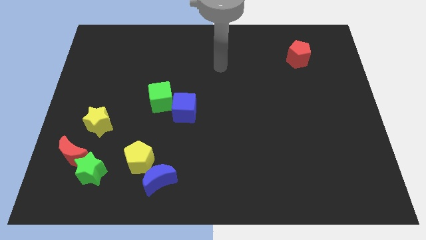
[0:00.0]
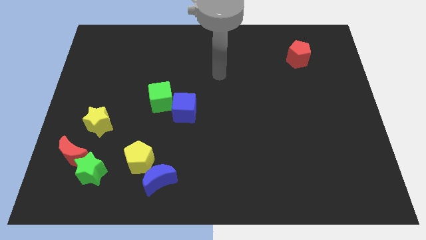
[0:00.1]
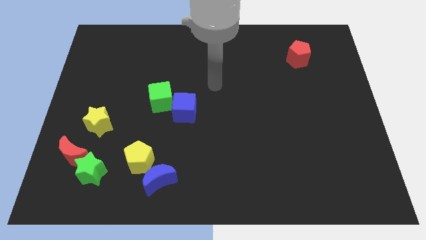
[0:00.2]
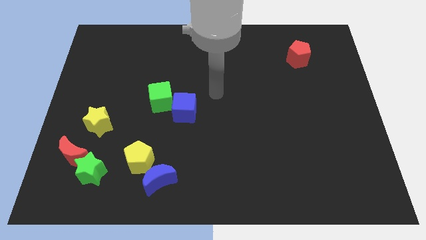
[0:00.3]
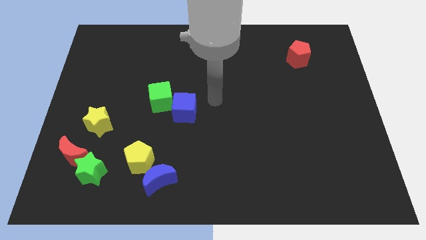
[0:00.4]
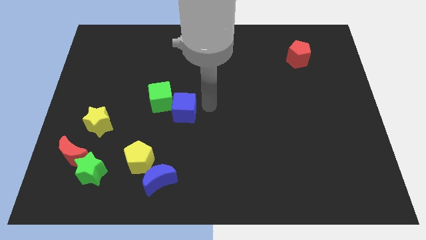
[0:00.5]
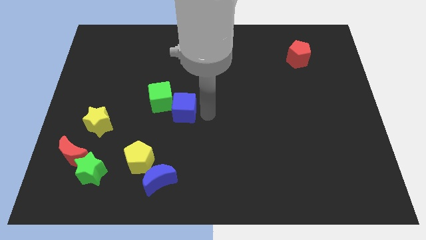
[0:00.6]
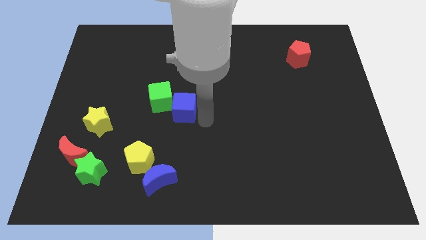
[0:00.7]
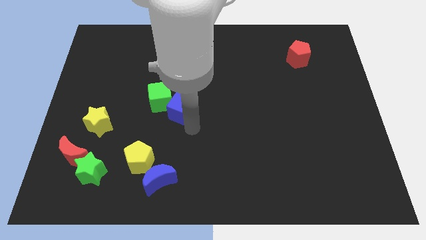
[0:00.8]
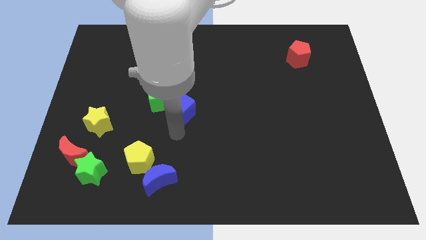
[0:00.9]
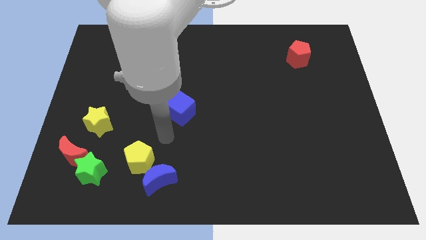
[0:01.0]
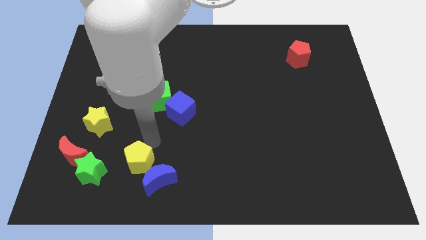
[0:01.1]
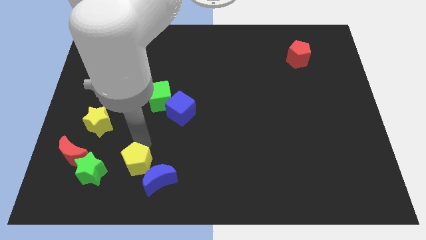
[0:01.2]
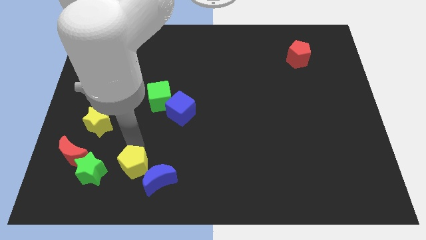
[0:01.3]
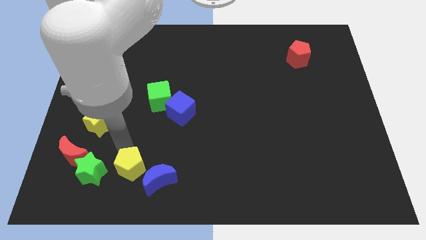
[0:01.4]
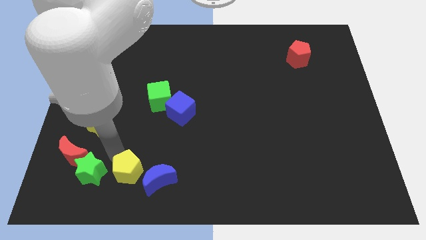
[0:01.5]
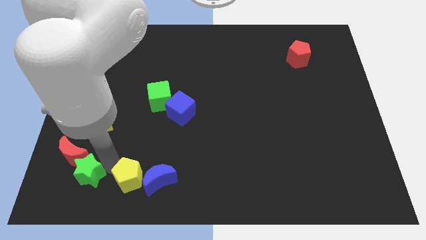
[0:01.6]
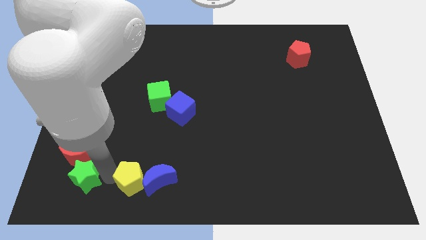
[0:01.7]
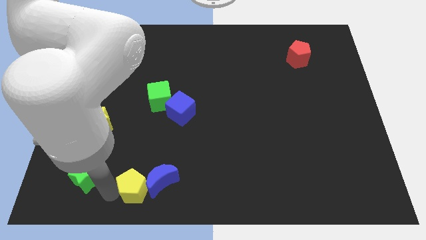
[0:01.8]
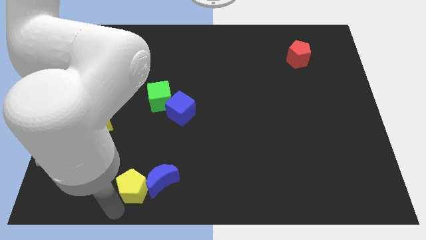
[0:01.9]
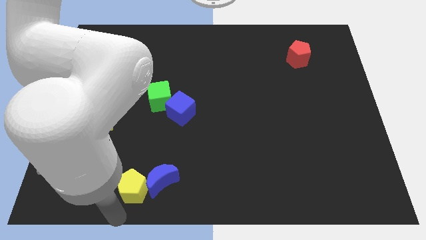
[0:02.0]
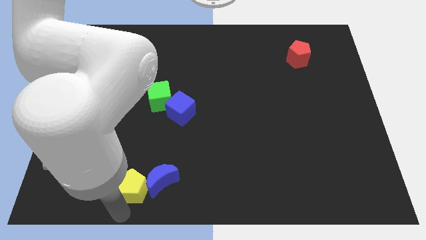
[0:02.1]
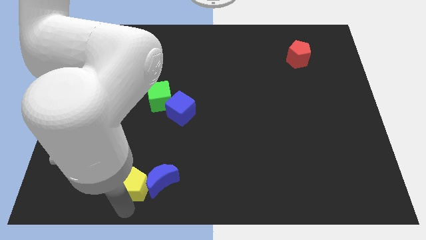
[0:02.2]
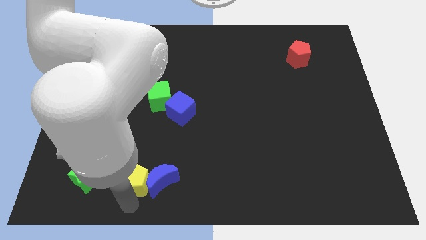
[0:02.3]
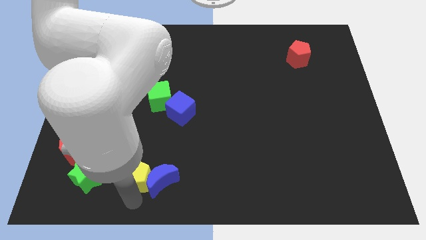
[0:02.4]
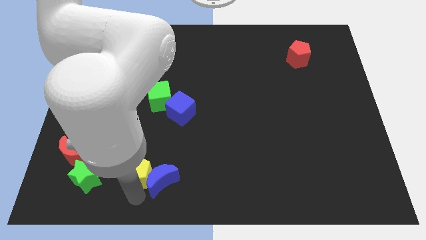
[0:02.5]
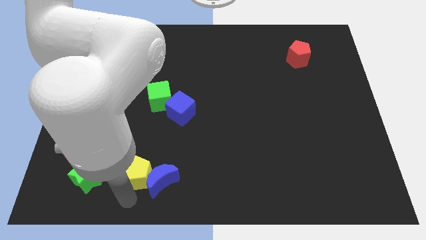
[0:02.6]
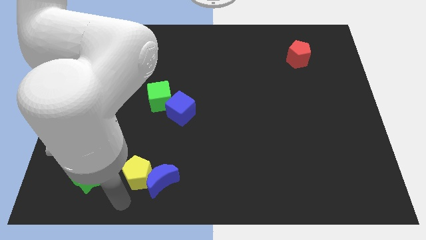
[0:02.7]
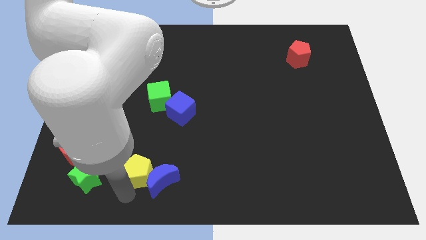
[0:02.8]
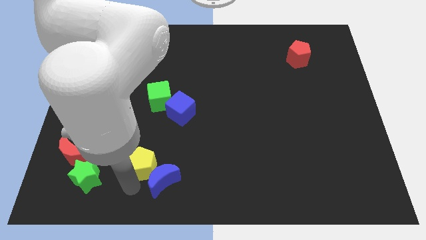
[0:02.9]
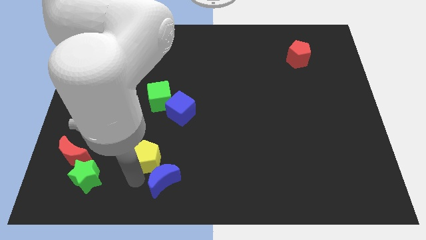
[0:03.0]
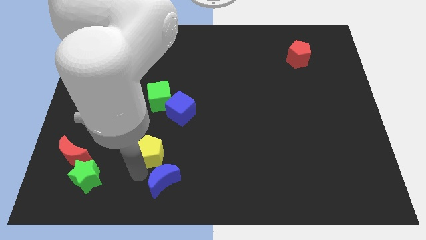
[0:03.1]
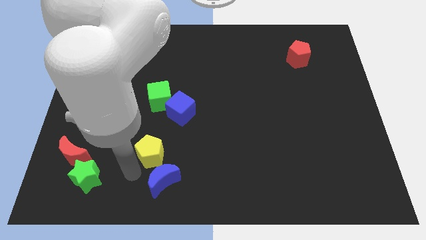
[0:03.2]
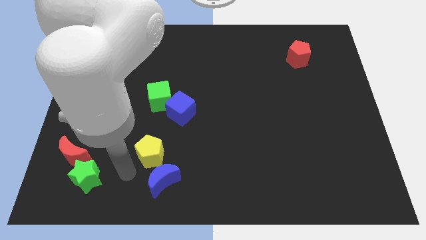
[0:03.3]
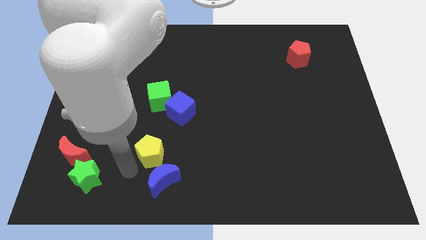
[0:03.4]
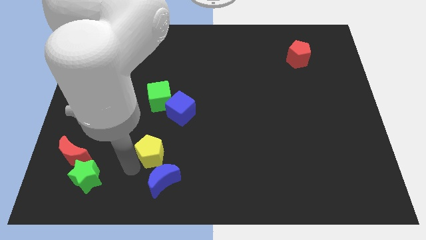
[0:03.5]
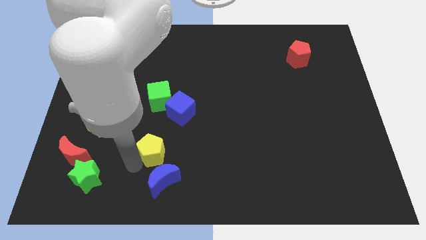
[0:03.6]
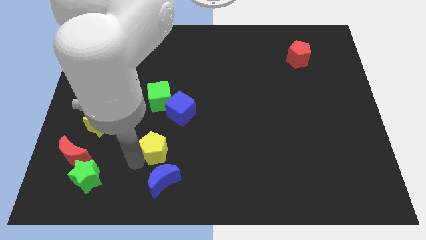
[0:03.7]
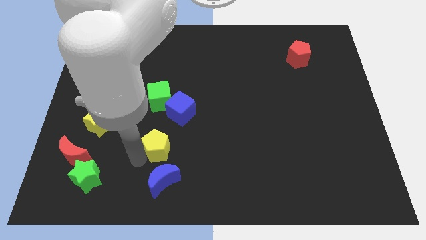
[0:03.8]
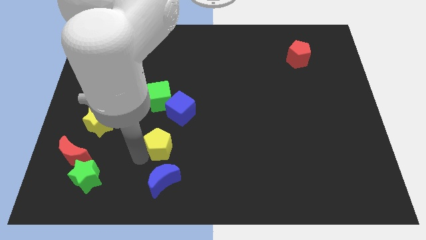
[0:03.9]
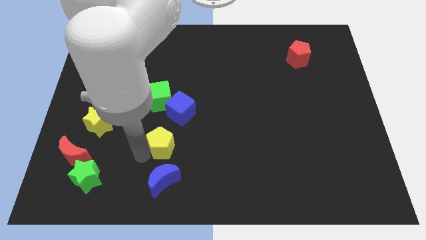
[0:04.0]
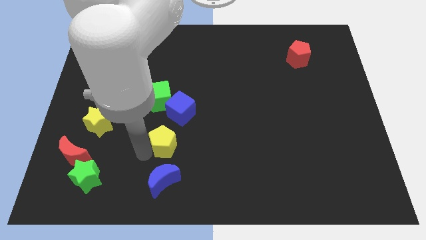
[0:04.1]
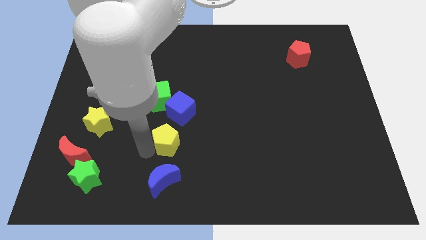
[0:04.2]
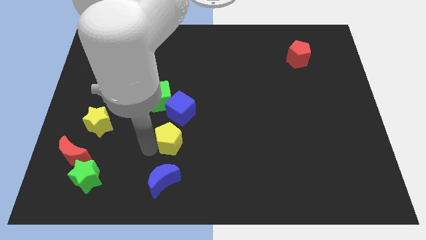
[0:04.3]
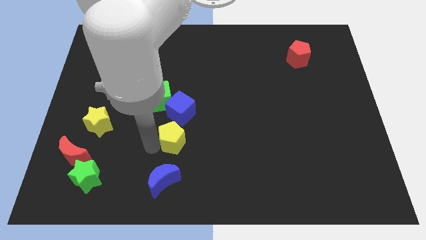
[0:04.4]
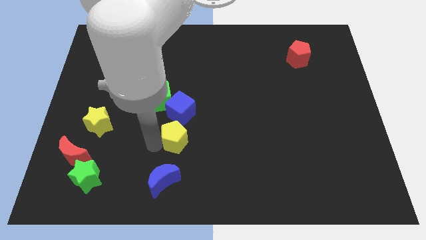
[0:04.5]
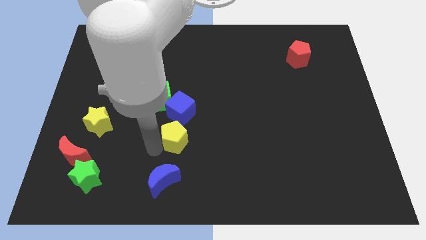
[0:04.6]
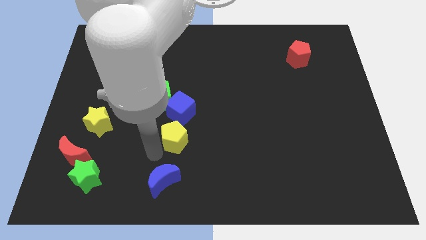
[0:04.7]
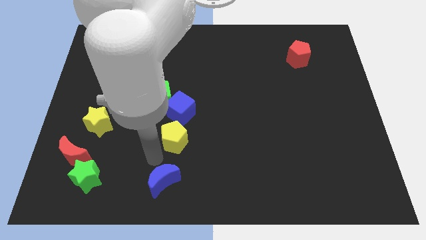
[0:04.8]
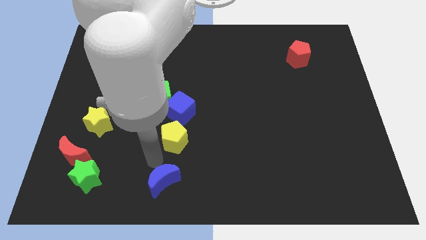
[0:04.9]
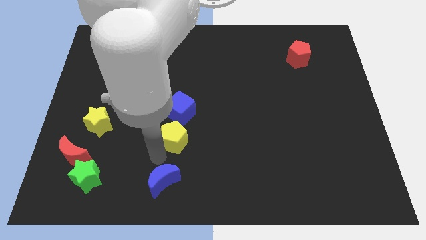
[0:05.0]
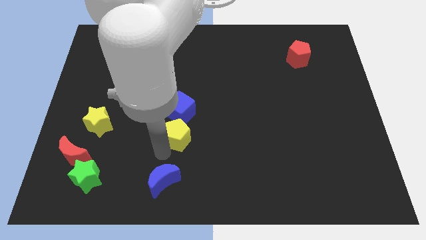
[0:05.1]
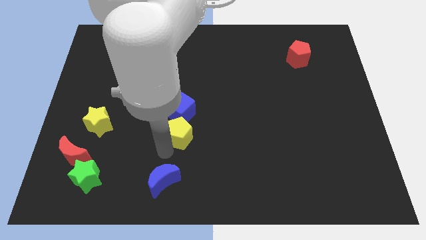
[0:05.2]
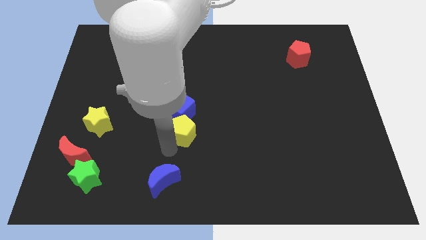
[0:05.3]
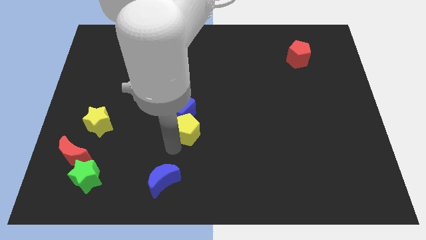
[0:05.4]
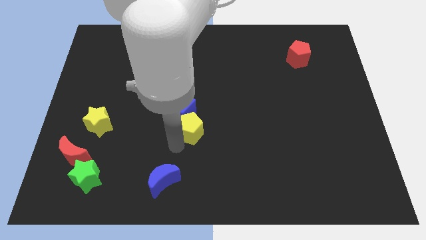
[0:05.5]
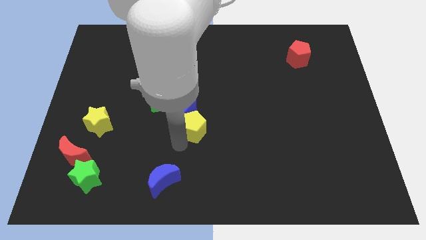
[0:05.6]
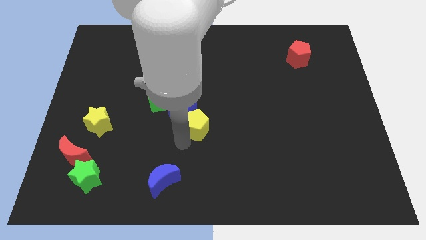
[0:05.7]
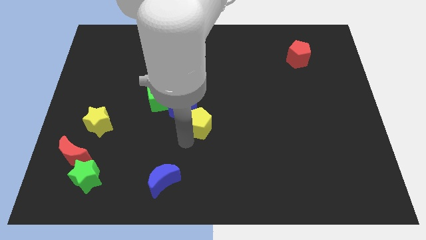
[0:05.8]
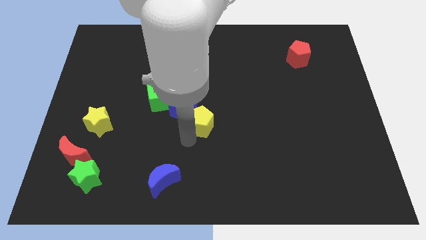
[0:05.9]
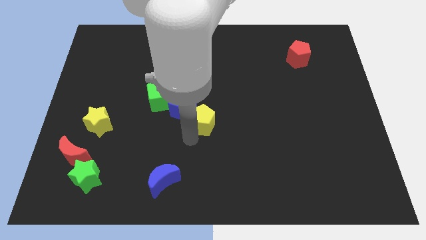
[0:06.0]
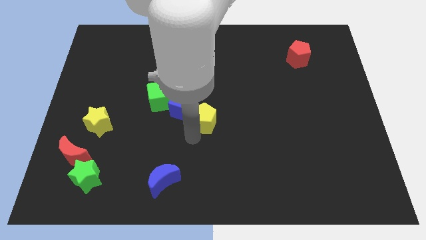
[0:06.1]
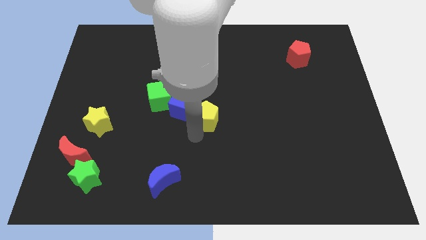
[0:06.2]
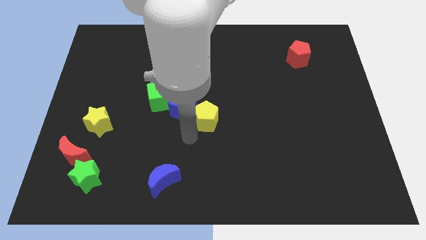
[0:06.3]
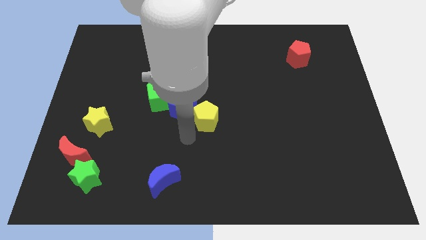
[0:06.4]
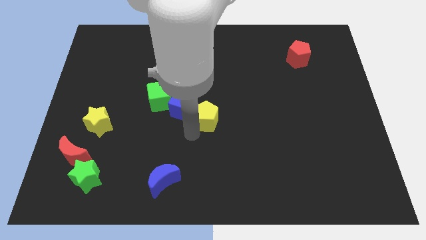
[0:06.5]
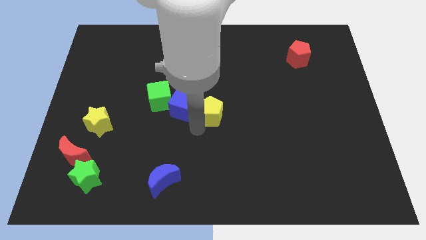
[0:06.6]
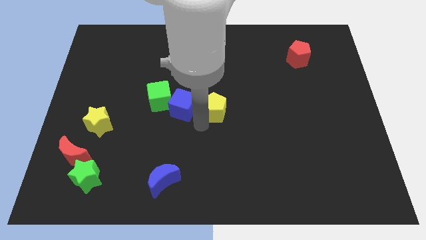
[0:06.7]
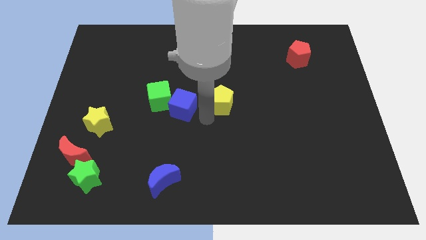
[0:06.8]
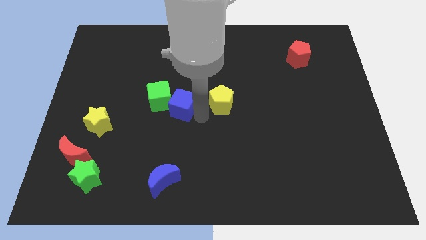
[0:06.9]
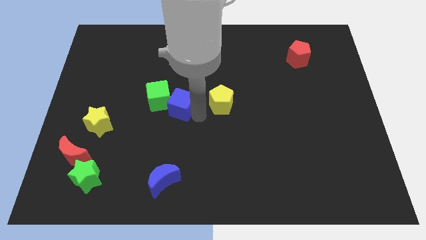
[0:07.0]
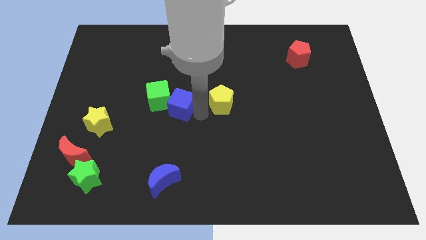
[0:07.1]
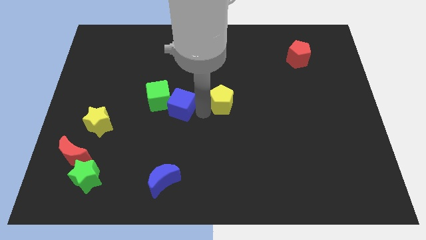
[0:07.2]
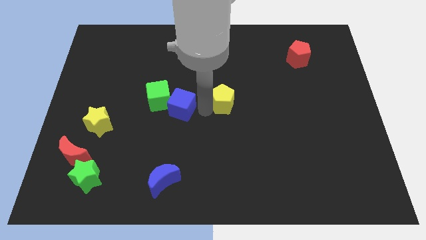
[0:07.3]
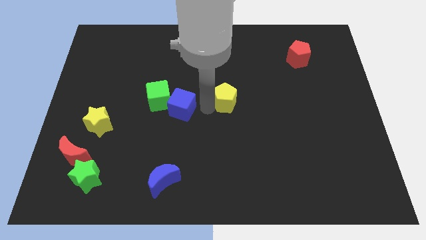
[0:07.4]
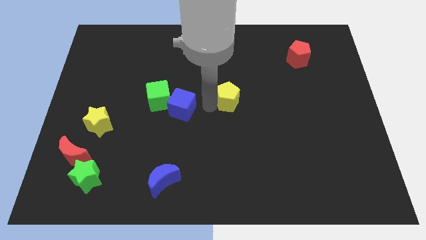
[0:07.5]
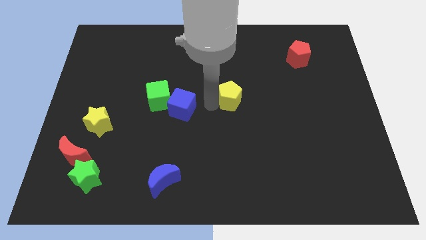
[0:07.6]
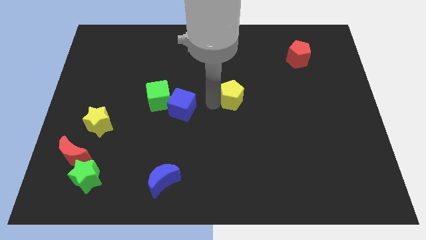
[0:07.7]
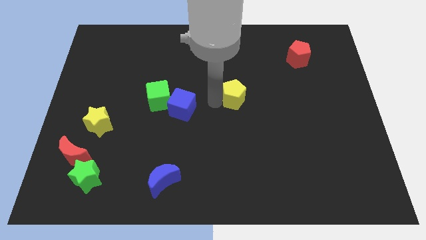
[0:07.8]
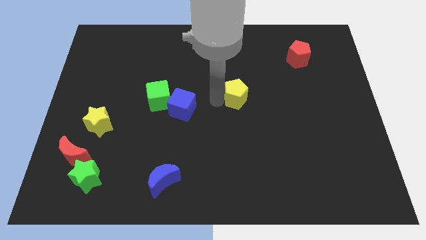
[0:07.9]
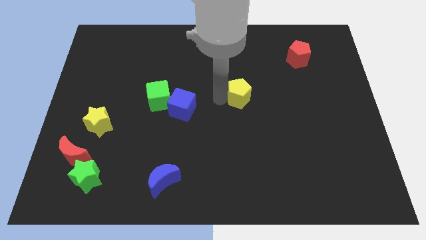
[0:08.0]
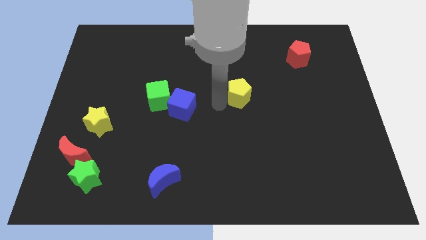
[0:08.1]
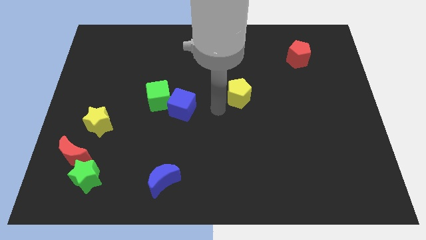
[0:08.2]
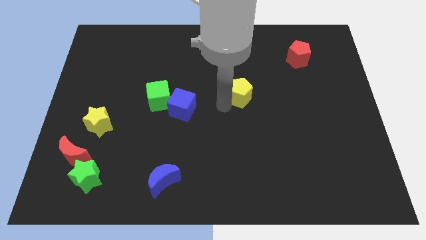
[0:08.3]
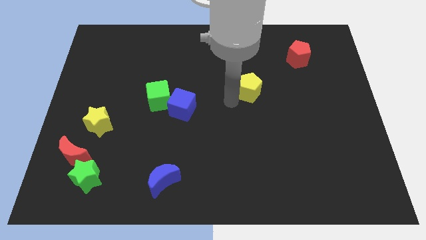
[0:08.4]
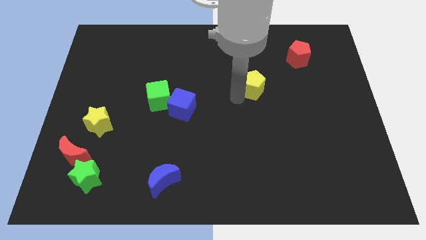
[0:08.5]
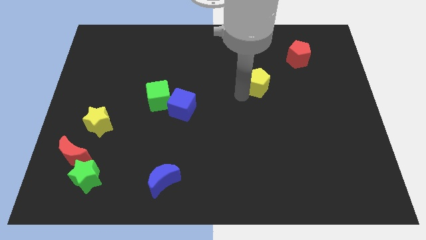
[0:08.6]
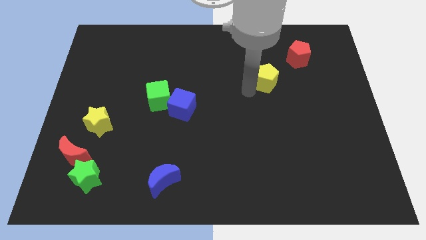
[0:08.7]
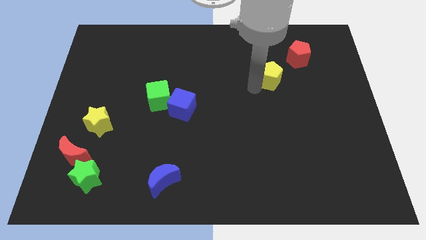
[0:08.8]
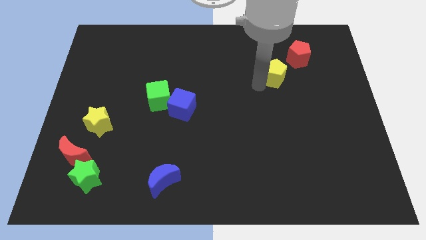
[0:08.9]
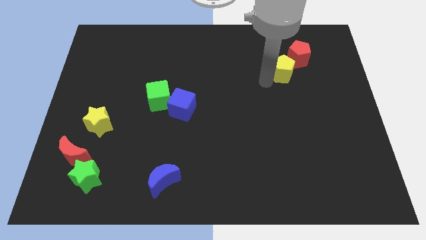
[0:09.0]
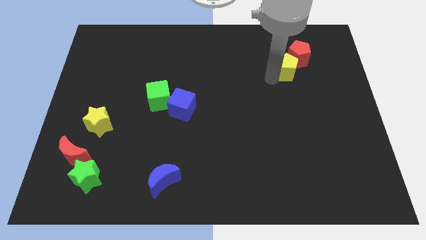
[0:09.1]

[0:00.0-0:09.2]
put the yellow pentagon close to the red pentagon
